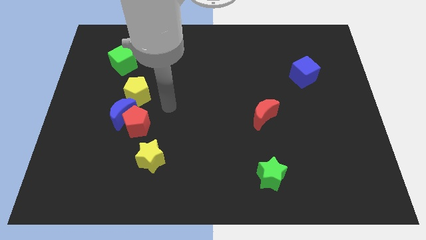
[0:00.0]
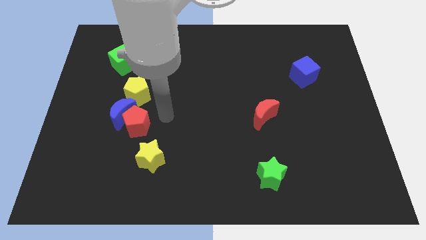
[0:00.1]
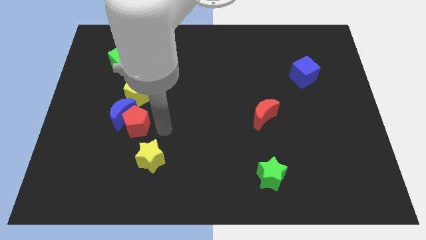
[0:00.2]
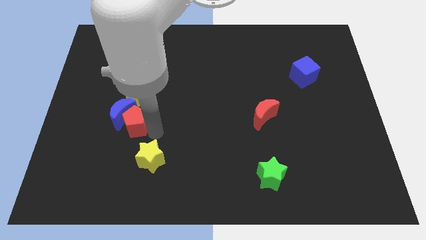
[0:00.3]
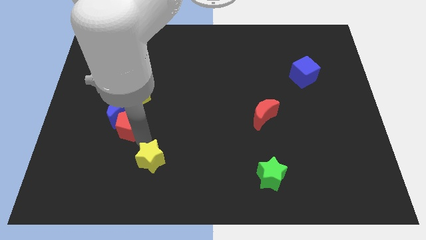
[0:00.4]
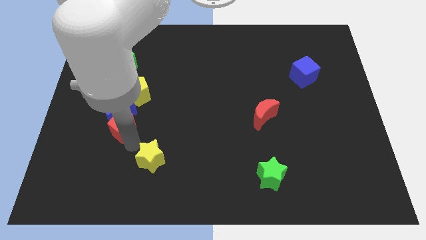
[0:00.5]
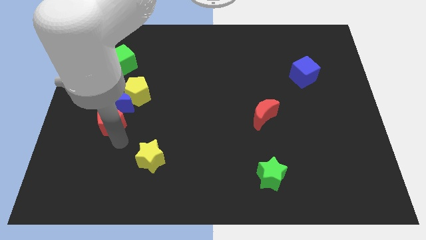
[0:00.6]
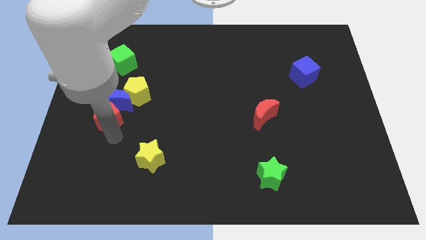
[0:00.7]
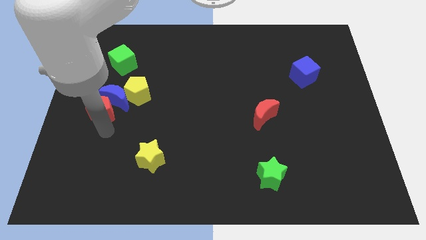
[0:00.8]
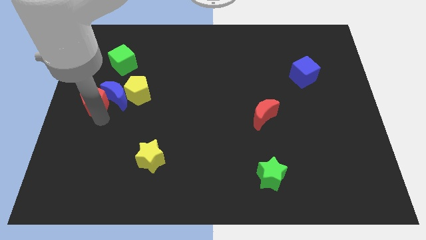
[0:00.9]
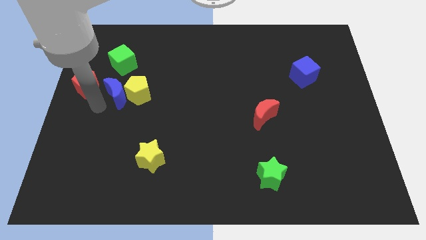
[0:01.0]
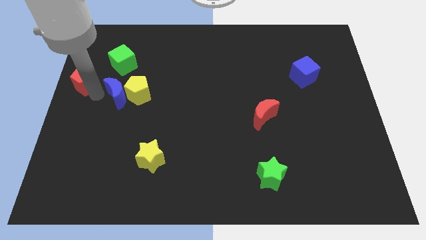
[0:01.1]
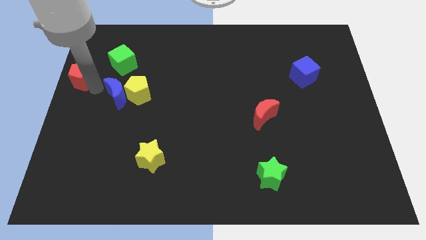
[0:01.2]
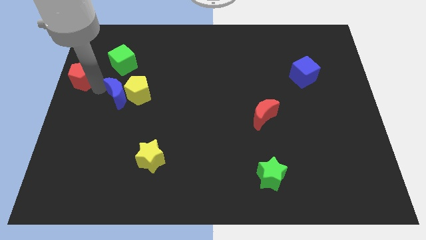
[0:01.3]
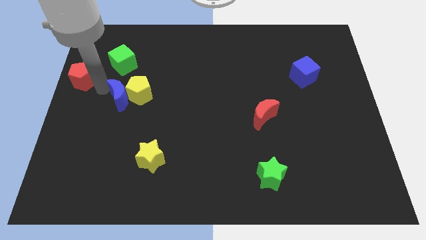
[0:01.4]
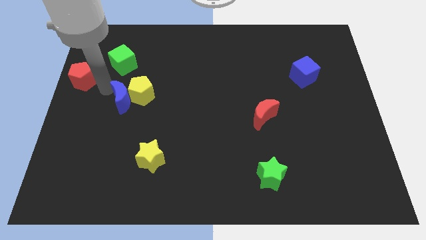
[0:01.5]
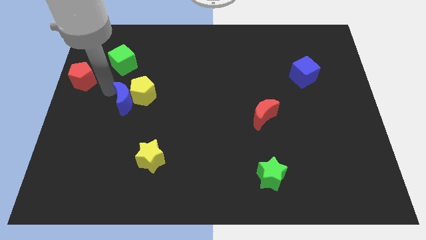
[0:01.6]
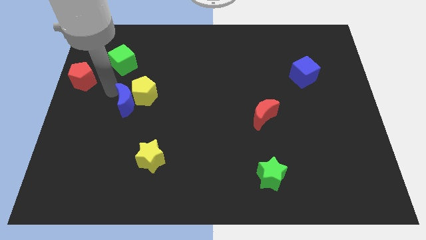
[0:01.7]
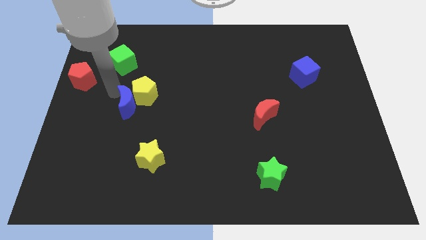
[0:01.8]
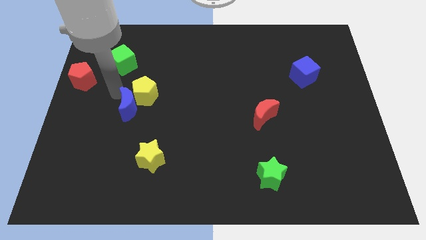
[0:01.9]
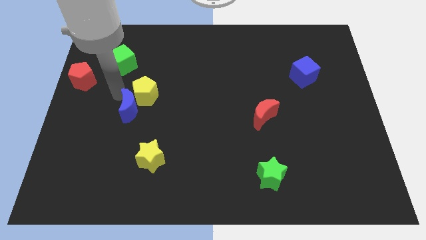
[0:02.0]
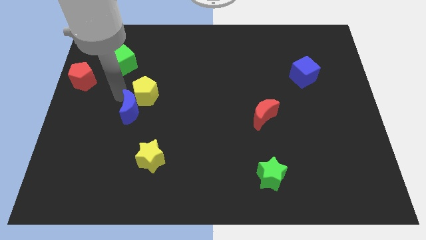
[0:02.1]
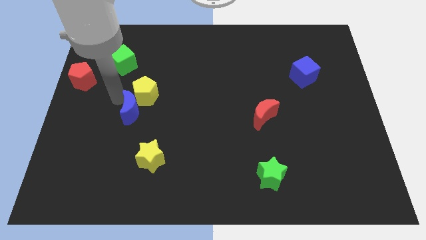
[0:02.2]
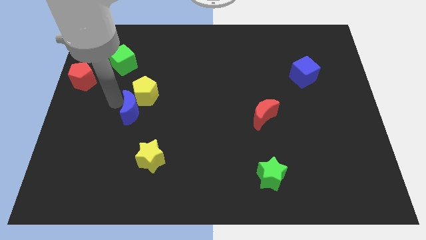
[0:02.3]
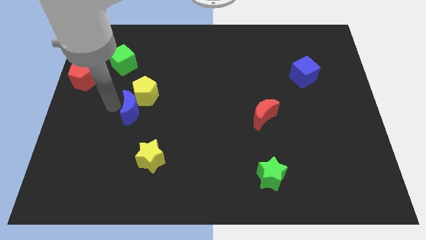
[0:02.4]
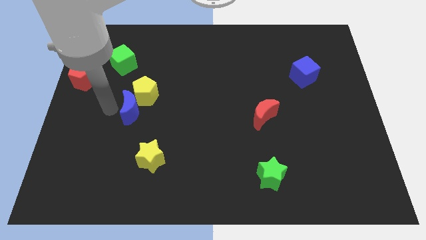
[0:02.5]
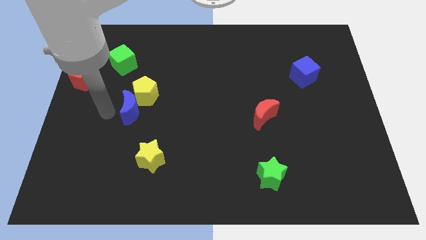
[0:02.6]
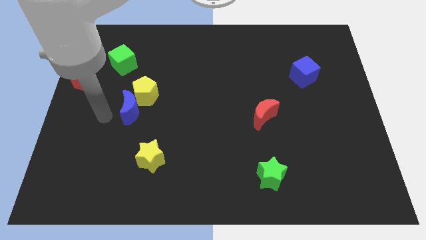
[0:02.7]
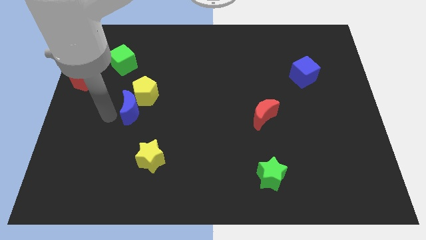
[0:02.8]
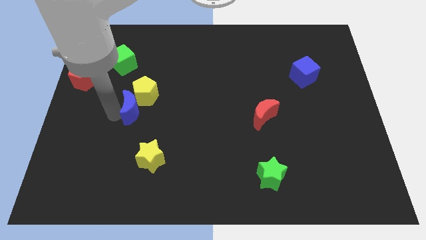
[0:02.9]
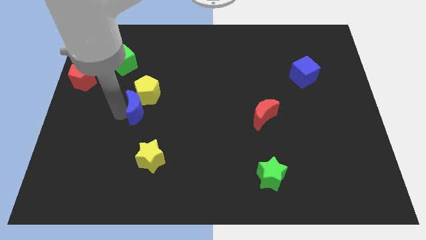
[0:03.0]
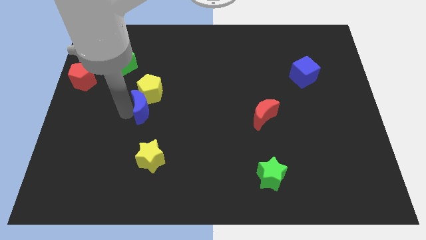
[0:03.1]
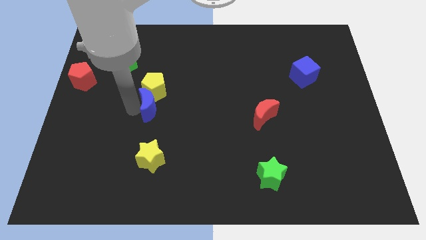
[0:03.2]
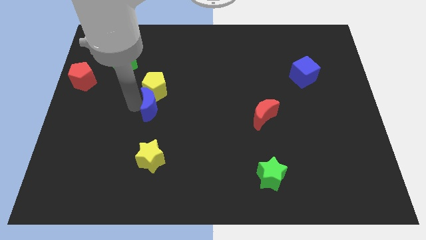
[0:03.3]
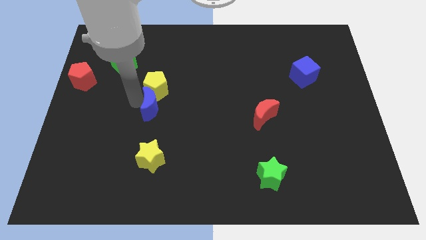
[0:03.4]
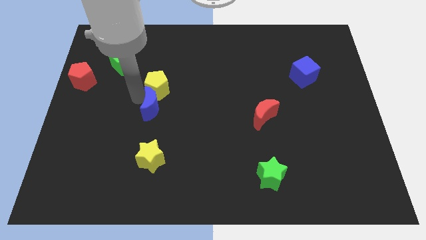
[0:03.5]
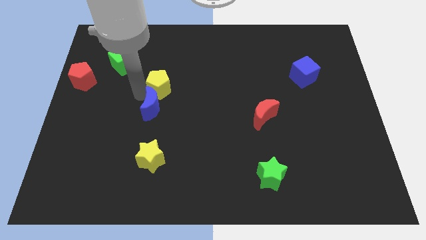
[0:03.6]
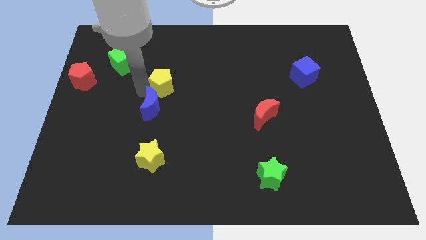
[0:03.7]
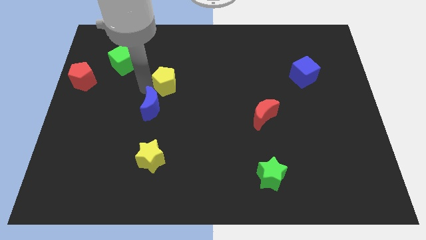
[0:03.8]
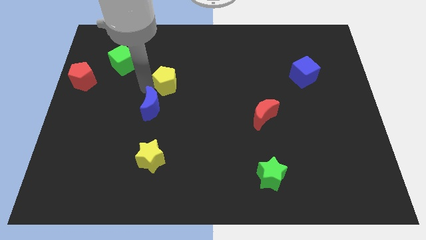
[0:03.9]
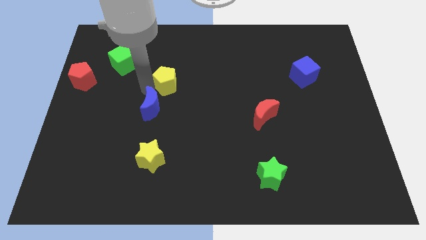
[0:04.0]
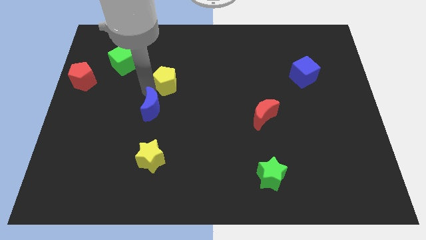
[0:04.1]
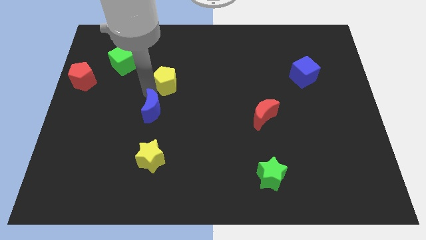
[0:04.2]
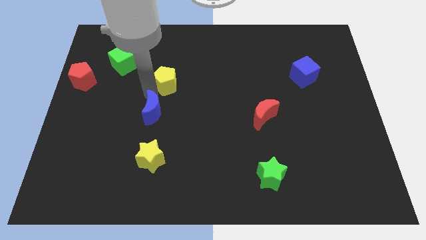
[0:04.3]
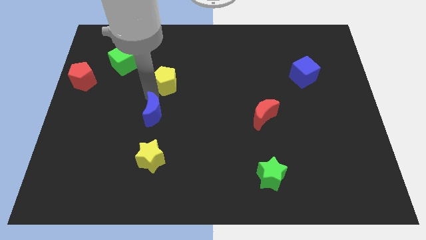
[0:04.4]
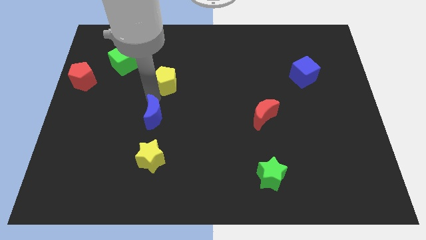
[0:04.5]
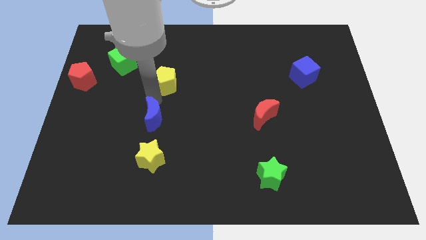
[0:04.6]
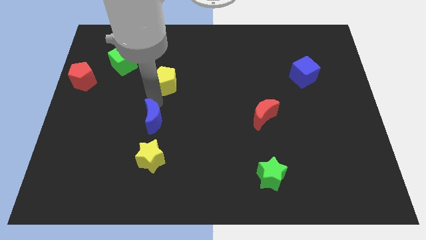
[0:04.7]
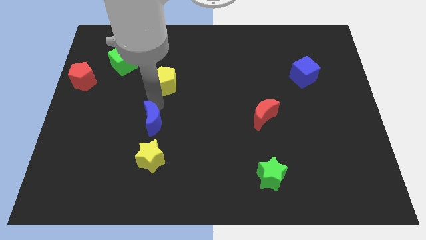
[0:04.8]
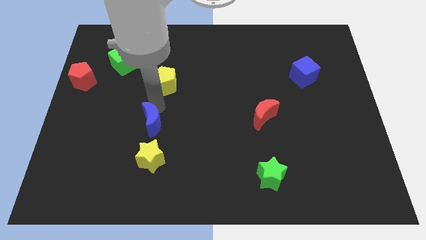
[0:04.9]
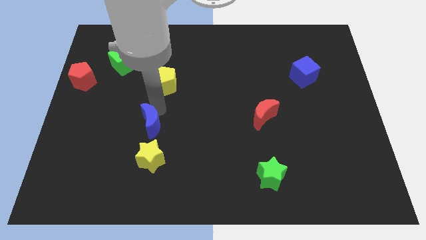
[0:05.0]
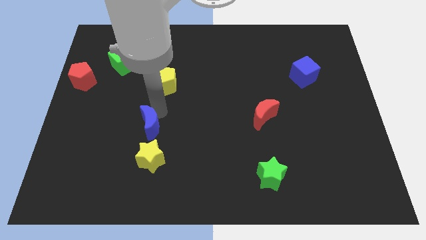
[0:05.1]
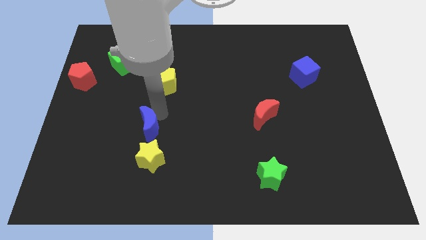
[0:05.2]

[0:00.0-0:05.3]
slightly move the blue moon diagonally down and right

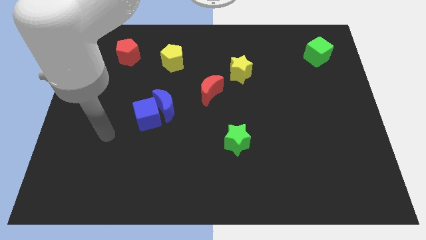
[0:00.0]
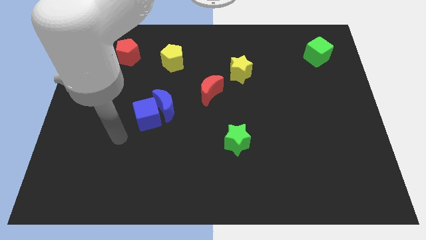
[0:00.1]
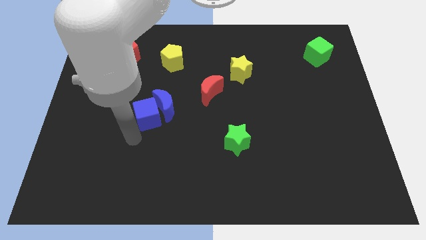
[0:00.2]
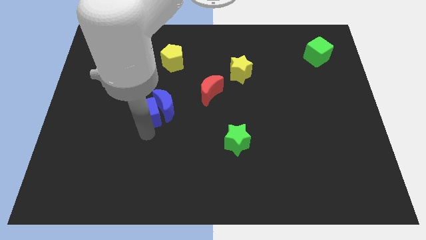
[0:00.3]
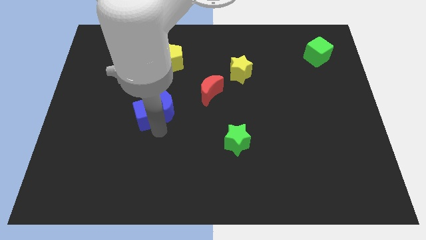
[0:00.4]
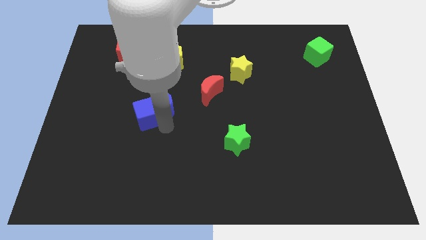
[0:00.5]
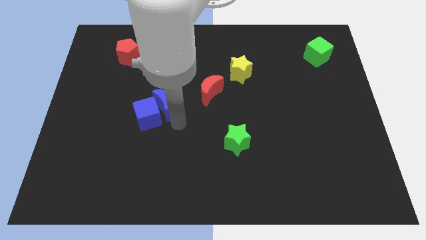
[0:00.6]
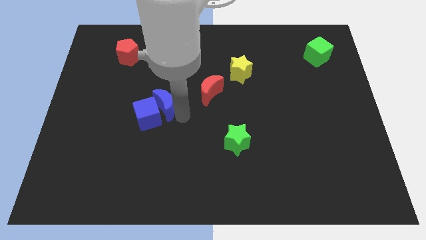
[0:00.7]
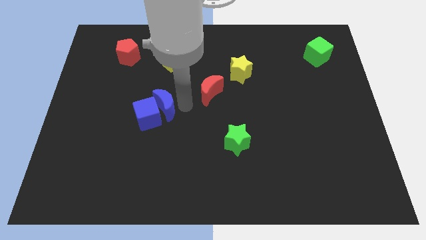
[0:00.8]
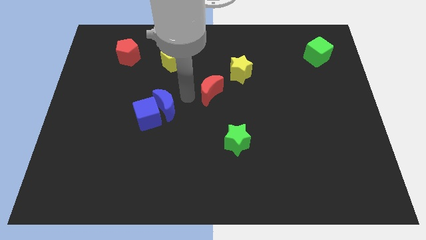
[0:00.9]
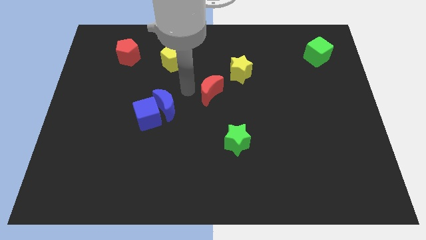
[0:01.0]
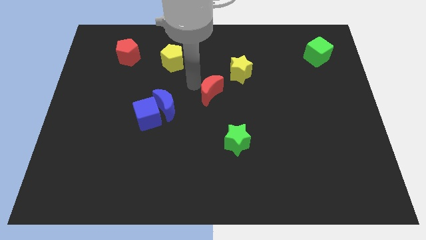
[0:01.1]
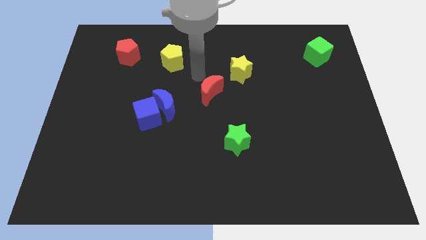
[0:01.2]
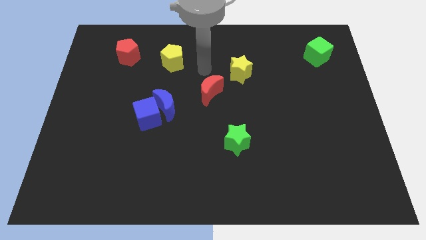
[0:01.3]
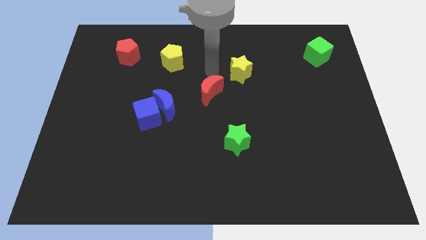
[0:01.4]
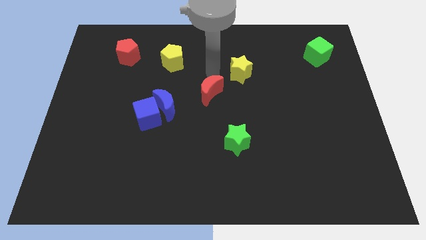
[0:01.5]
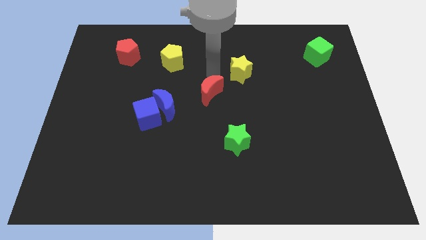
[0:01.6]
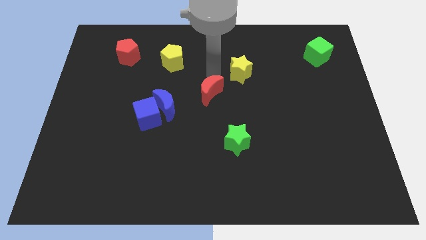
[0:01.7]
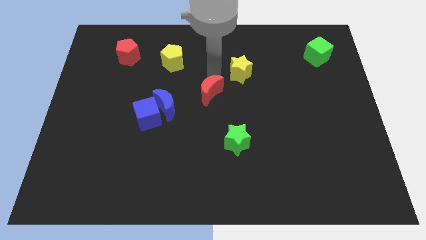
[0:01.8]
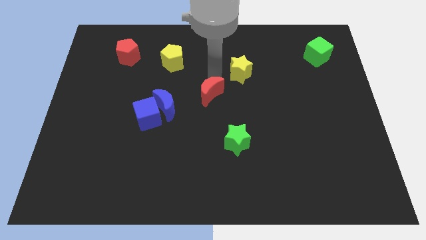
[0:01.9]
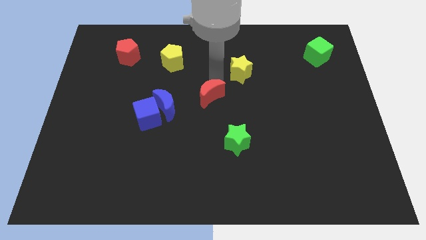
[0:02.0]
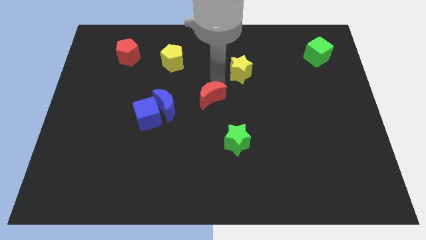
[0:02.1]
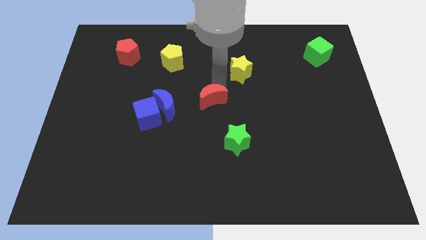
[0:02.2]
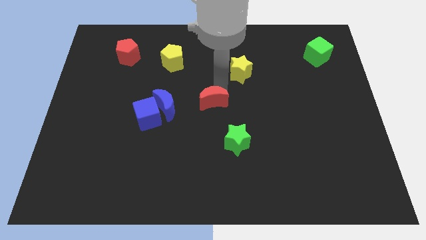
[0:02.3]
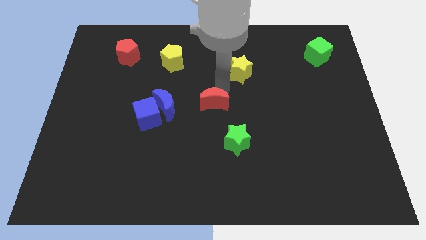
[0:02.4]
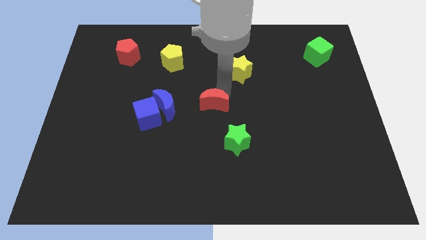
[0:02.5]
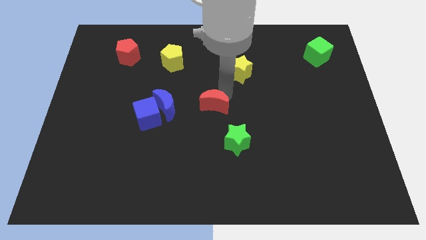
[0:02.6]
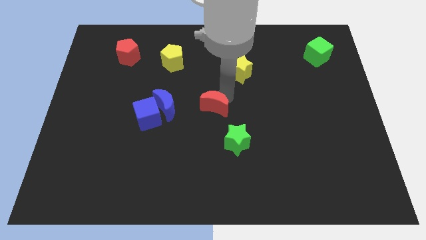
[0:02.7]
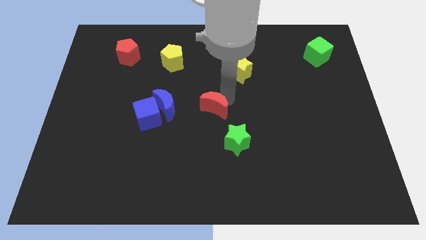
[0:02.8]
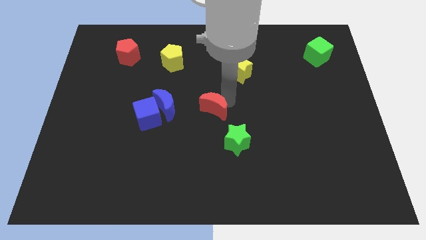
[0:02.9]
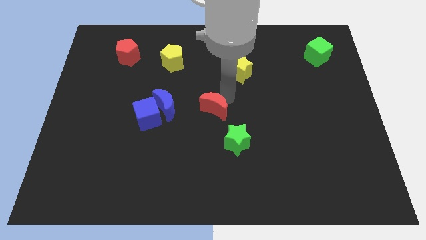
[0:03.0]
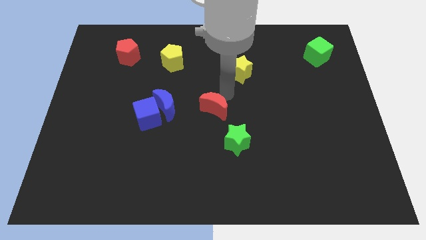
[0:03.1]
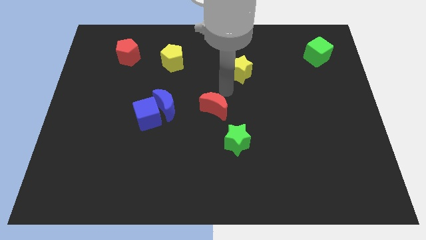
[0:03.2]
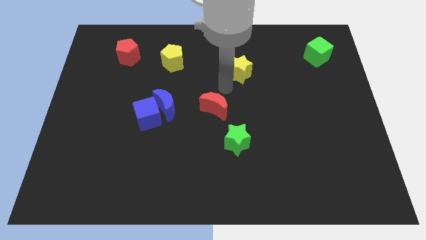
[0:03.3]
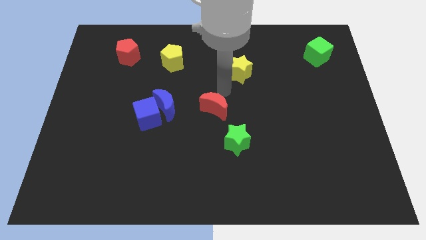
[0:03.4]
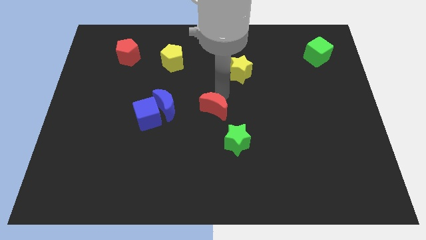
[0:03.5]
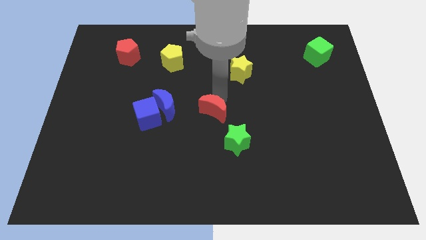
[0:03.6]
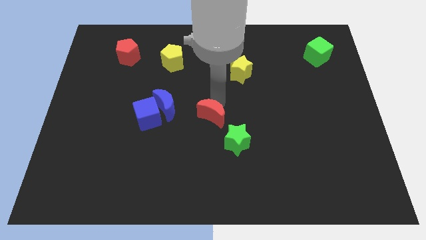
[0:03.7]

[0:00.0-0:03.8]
slide the red moon a little down
